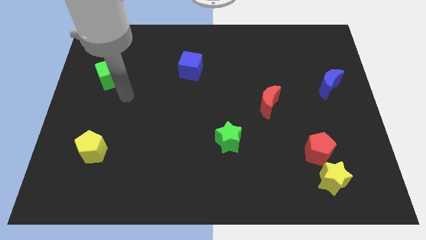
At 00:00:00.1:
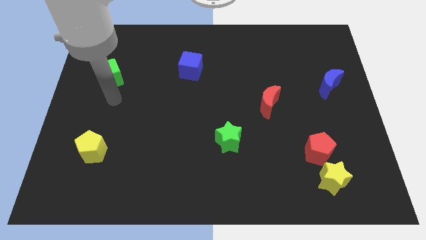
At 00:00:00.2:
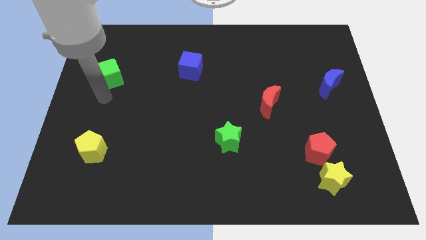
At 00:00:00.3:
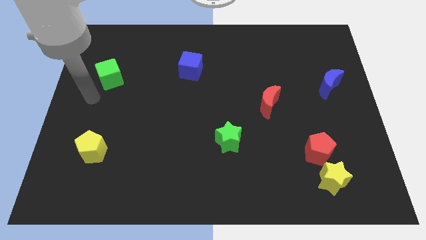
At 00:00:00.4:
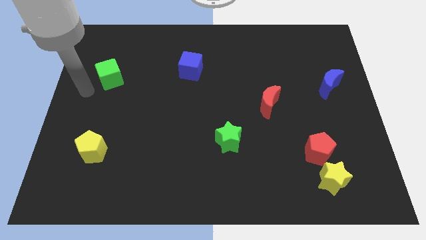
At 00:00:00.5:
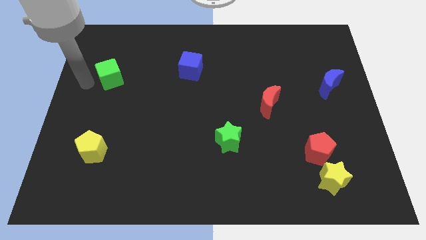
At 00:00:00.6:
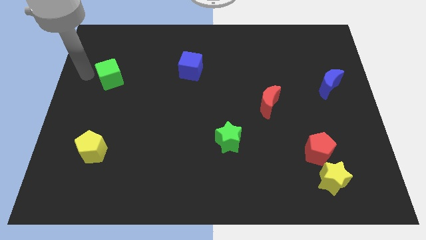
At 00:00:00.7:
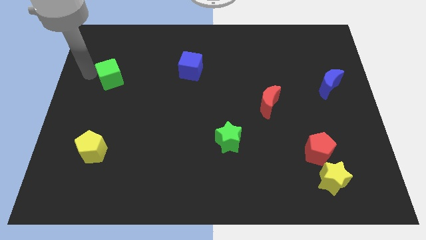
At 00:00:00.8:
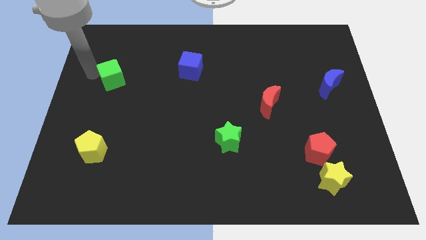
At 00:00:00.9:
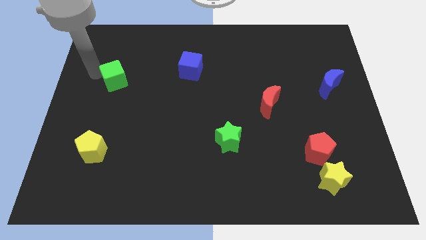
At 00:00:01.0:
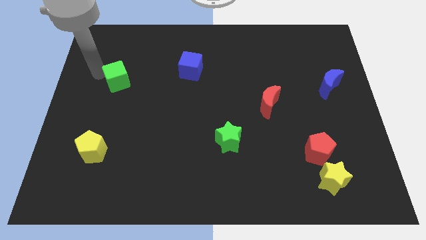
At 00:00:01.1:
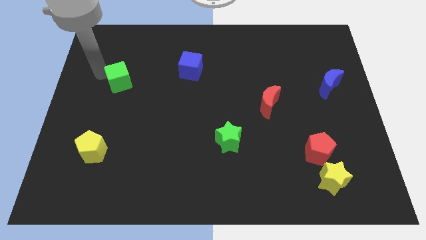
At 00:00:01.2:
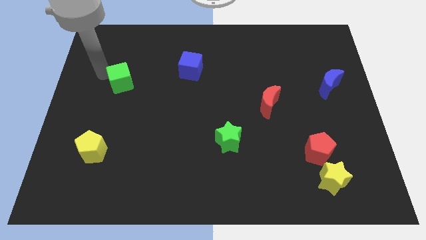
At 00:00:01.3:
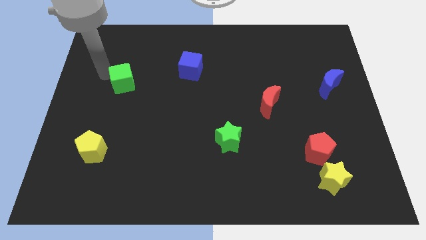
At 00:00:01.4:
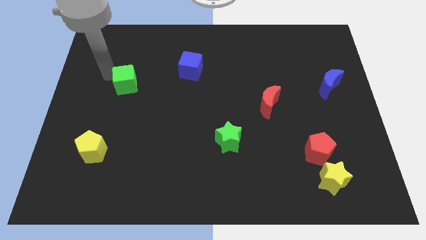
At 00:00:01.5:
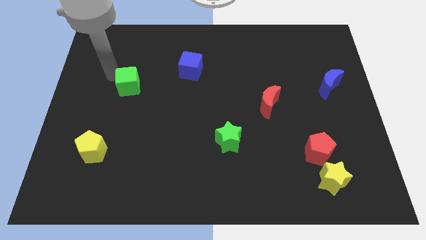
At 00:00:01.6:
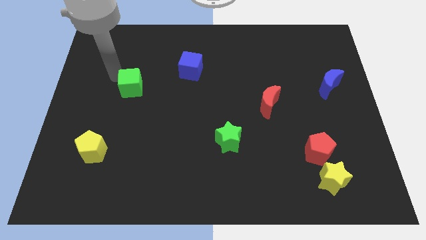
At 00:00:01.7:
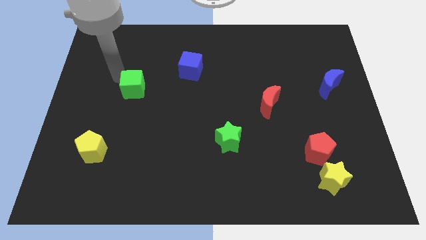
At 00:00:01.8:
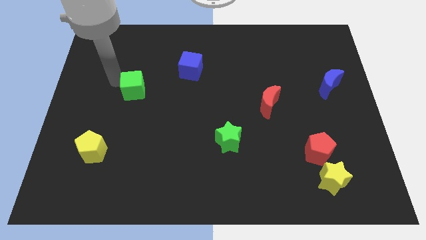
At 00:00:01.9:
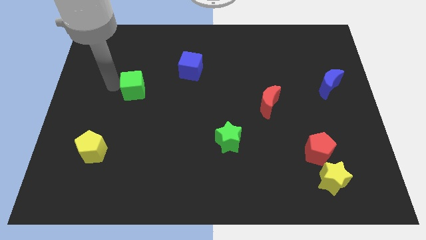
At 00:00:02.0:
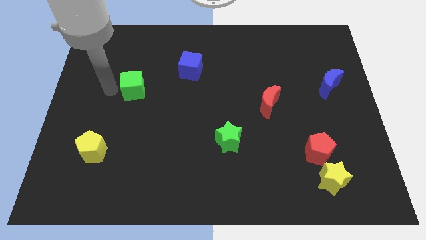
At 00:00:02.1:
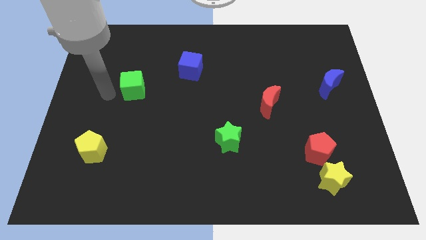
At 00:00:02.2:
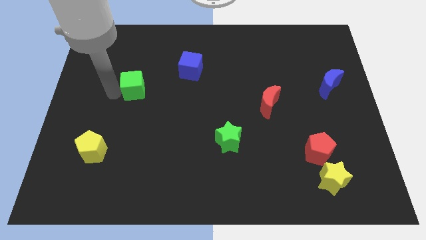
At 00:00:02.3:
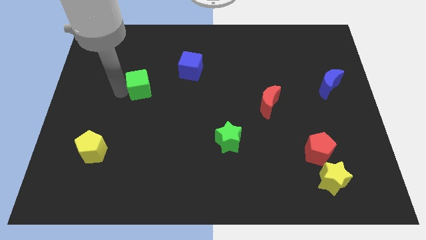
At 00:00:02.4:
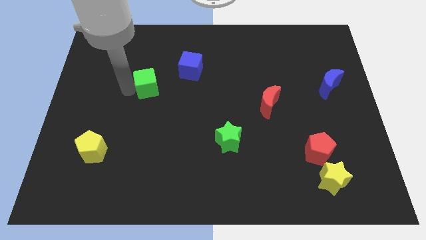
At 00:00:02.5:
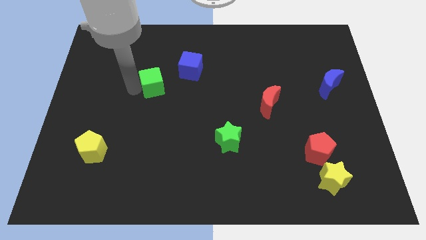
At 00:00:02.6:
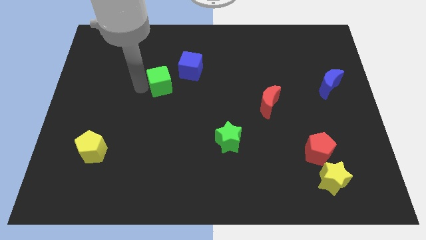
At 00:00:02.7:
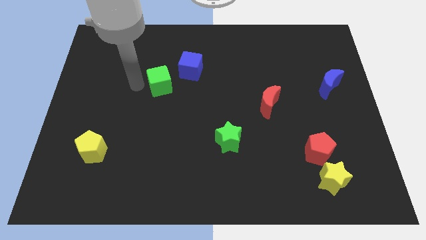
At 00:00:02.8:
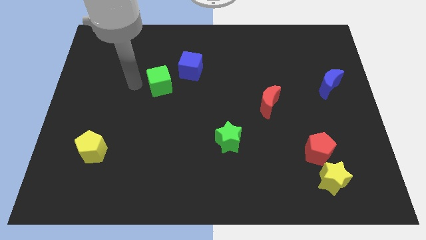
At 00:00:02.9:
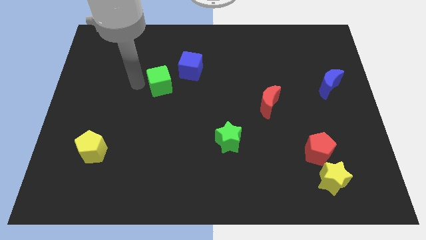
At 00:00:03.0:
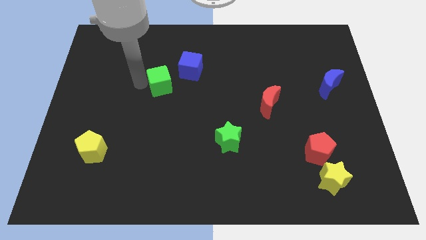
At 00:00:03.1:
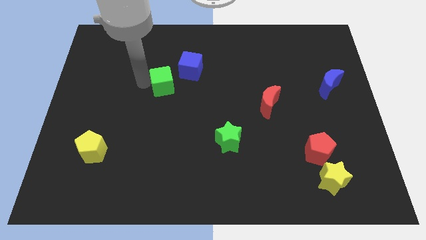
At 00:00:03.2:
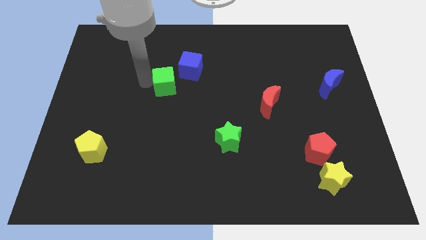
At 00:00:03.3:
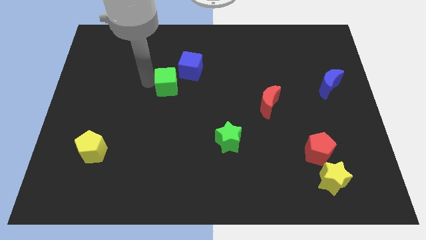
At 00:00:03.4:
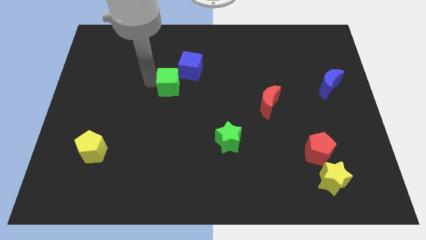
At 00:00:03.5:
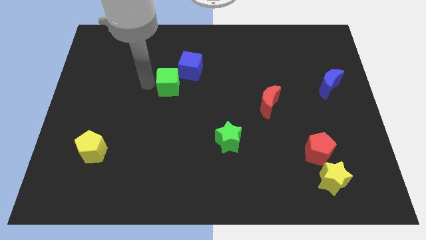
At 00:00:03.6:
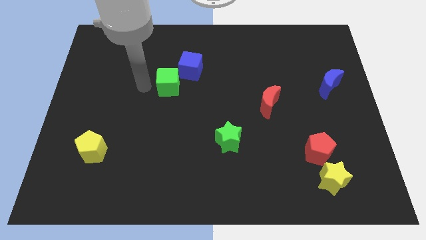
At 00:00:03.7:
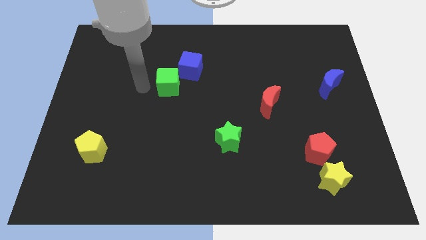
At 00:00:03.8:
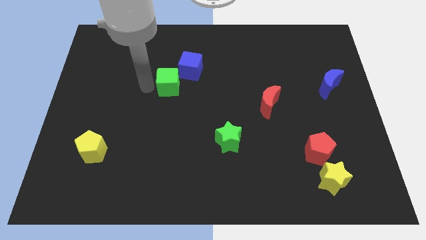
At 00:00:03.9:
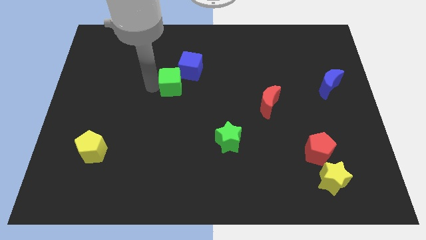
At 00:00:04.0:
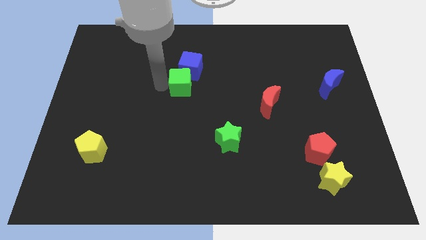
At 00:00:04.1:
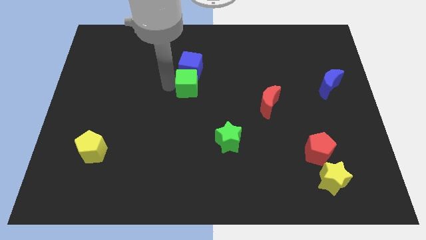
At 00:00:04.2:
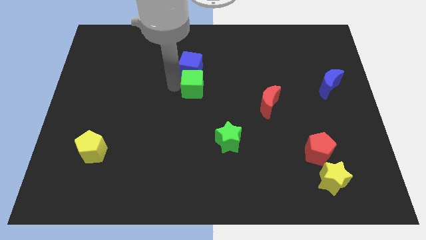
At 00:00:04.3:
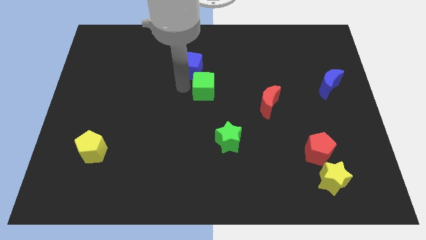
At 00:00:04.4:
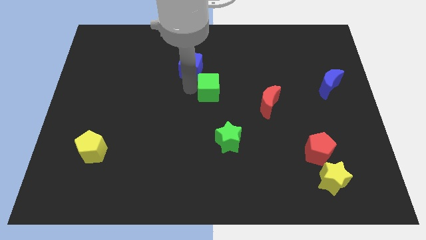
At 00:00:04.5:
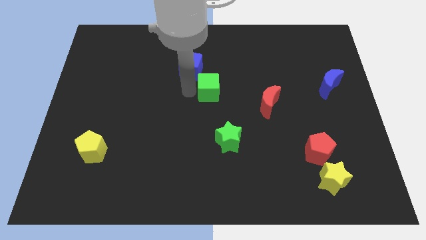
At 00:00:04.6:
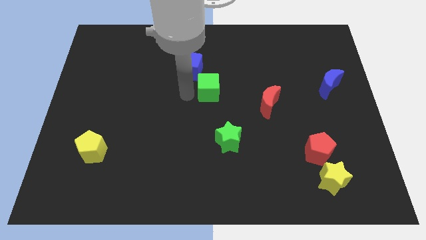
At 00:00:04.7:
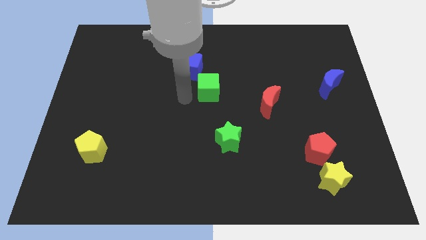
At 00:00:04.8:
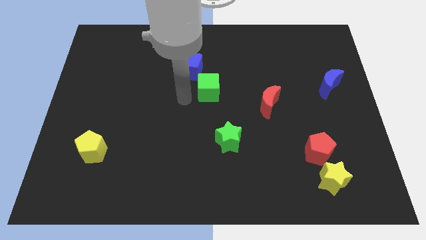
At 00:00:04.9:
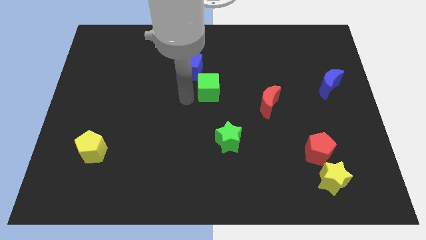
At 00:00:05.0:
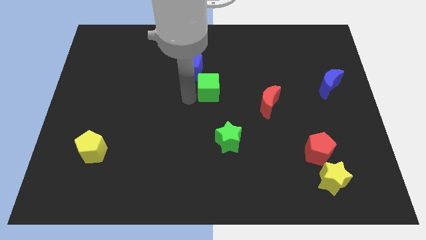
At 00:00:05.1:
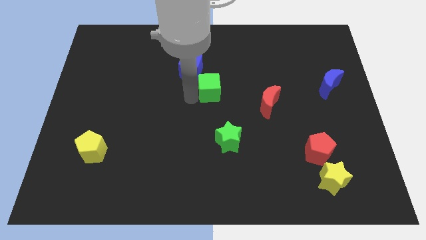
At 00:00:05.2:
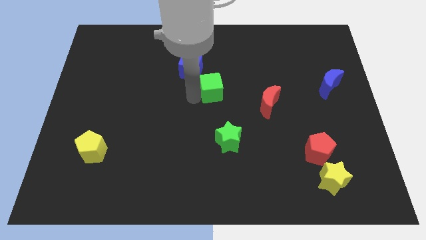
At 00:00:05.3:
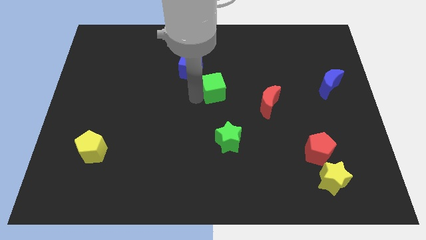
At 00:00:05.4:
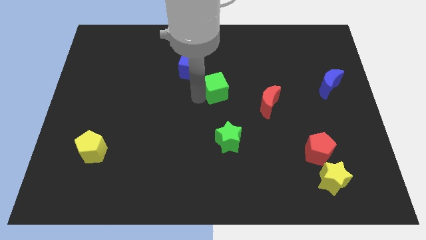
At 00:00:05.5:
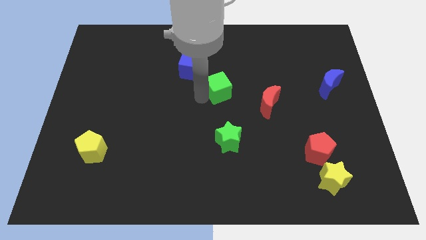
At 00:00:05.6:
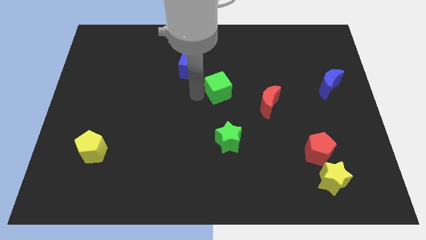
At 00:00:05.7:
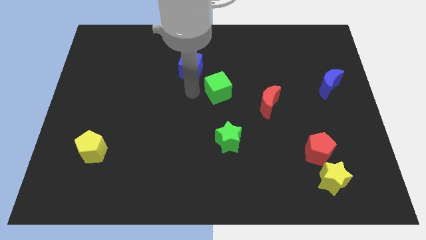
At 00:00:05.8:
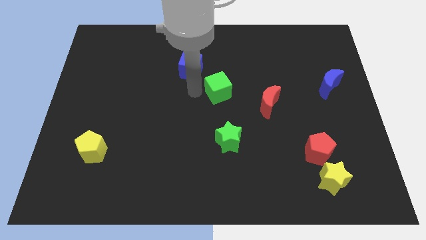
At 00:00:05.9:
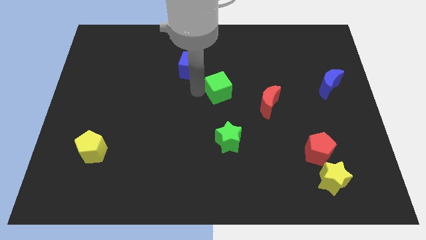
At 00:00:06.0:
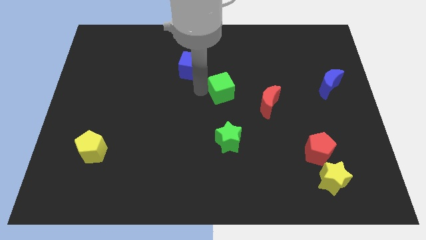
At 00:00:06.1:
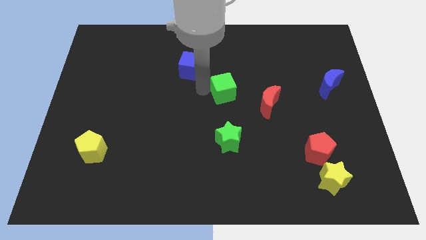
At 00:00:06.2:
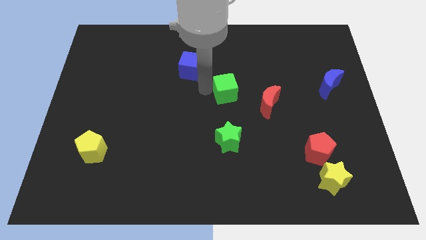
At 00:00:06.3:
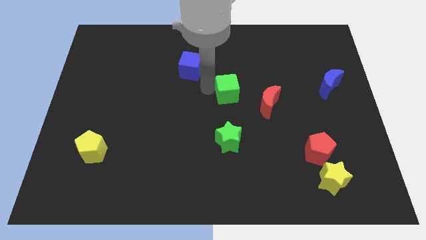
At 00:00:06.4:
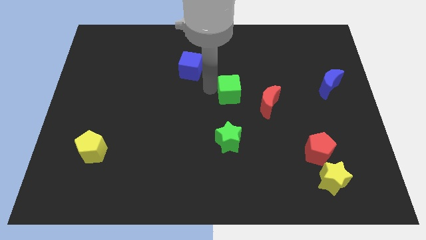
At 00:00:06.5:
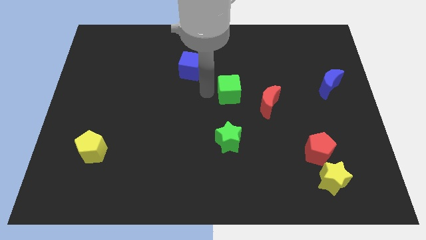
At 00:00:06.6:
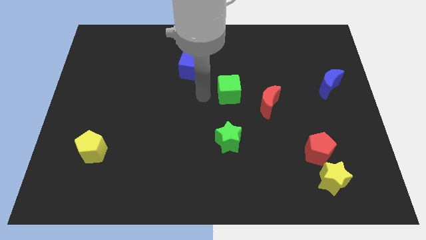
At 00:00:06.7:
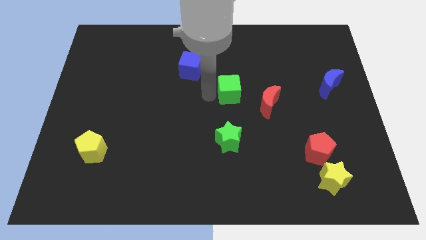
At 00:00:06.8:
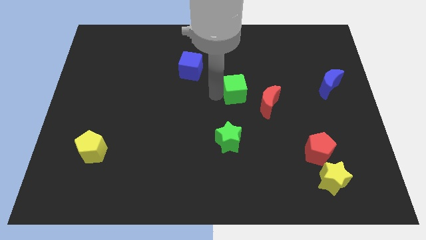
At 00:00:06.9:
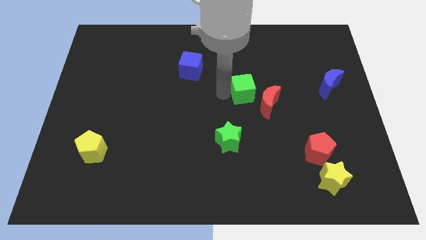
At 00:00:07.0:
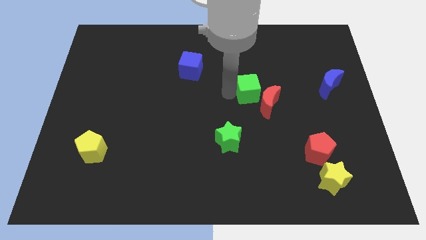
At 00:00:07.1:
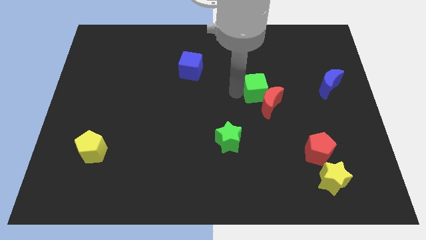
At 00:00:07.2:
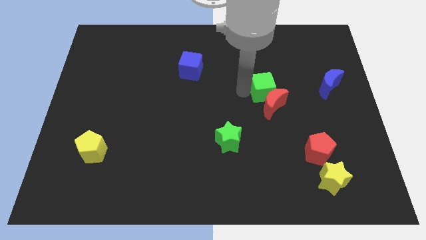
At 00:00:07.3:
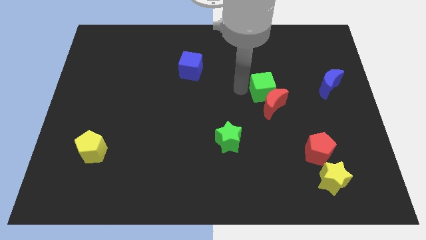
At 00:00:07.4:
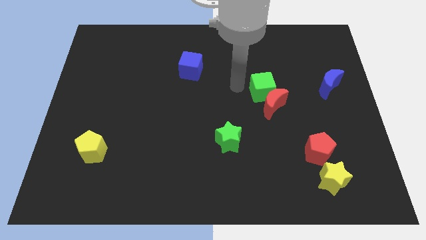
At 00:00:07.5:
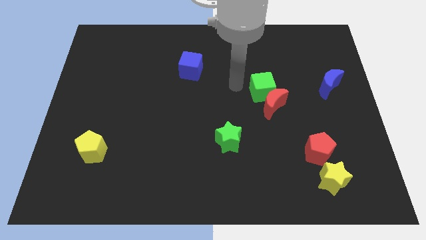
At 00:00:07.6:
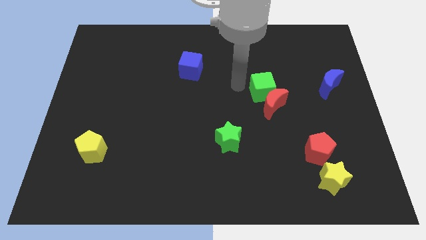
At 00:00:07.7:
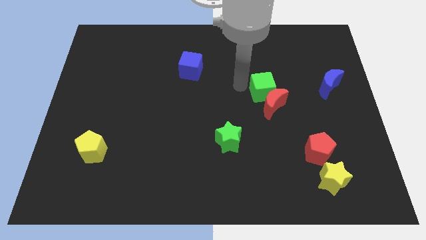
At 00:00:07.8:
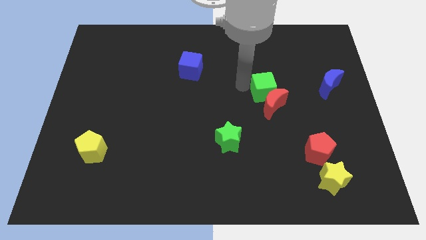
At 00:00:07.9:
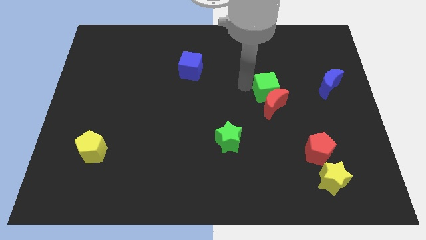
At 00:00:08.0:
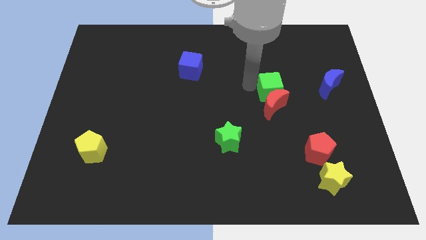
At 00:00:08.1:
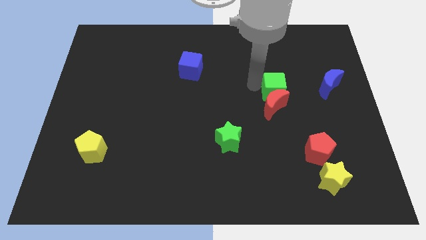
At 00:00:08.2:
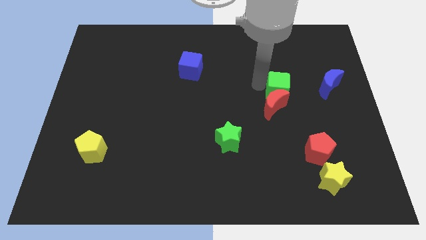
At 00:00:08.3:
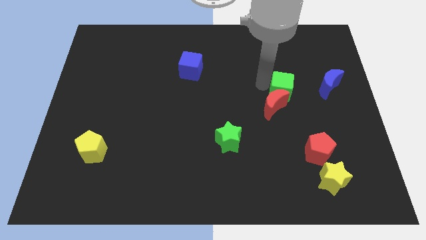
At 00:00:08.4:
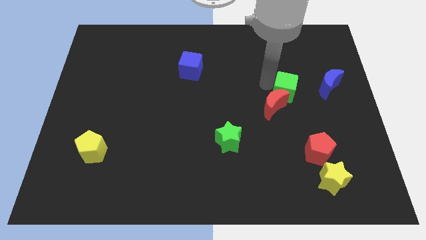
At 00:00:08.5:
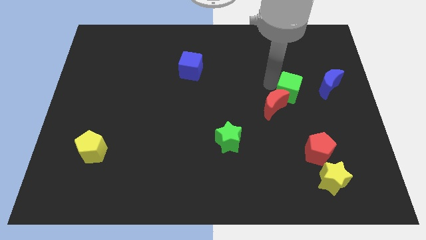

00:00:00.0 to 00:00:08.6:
put the green cube to the right of the red moon
